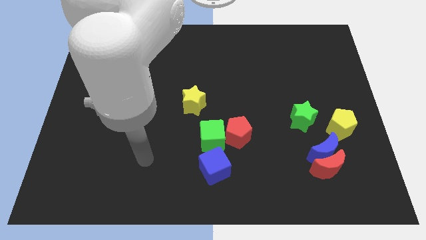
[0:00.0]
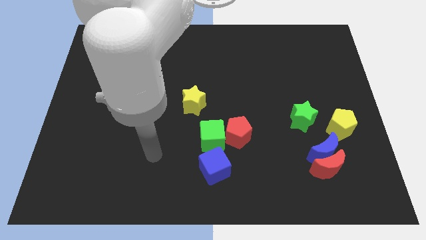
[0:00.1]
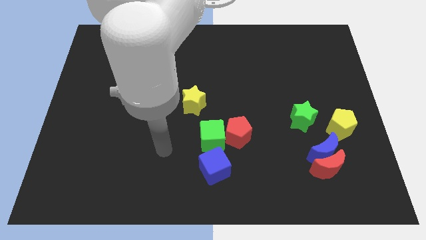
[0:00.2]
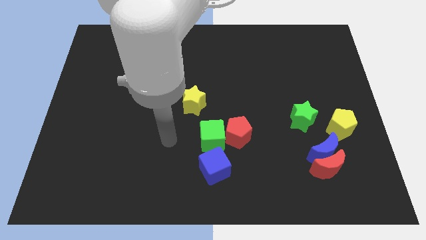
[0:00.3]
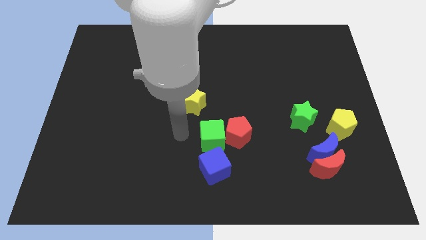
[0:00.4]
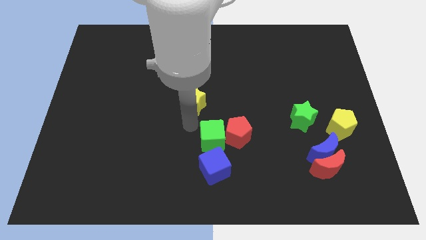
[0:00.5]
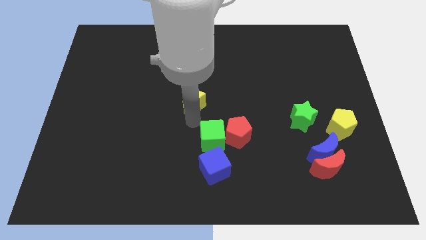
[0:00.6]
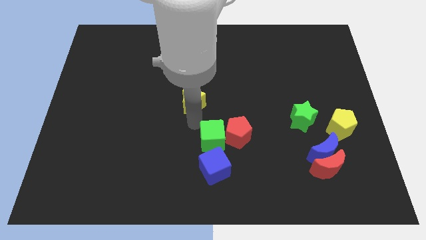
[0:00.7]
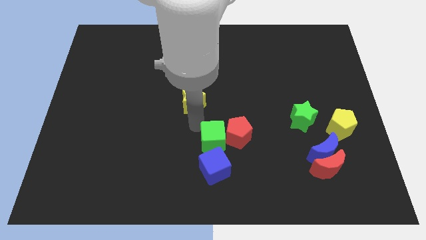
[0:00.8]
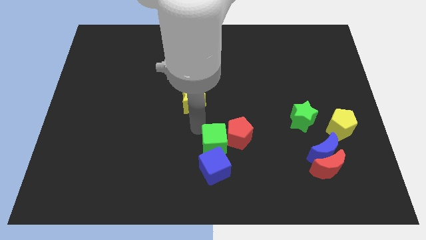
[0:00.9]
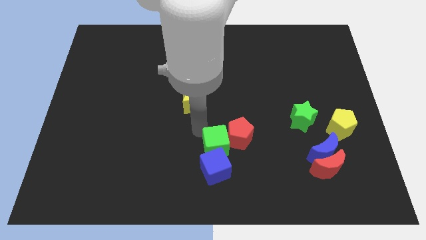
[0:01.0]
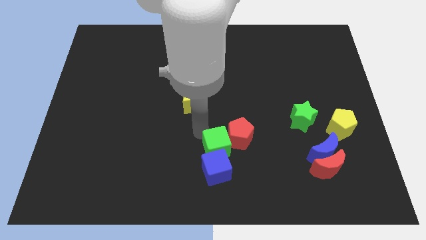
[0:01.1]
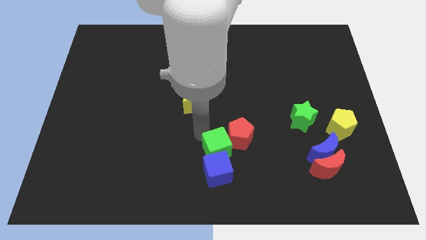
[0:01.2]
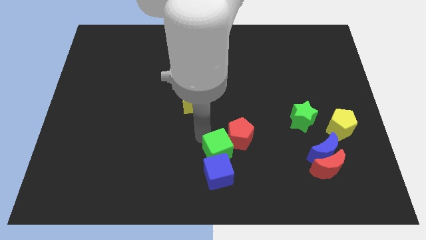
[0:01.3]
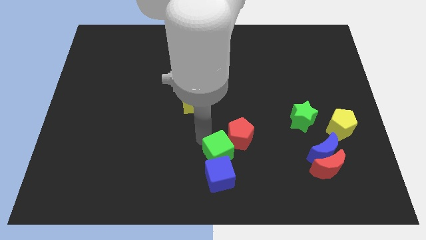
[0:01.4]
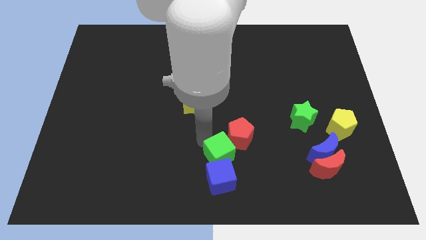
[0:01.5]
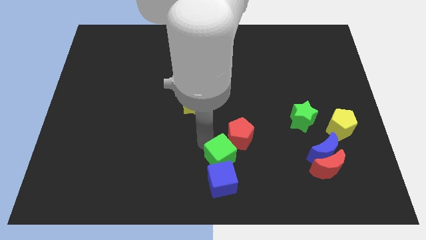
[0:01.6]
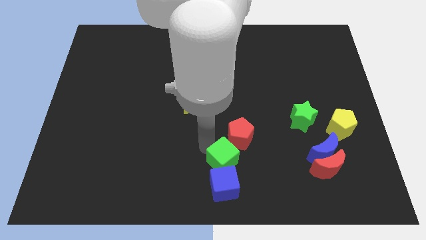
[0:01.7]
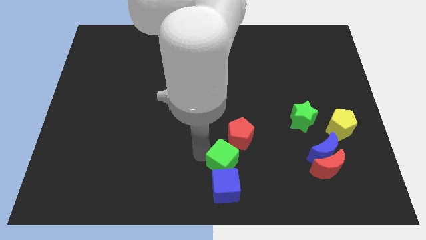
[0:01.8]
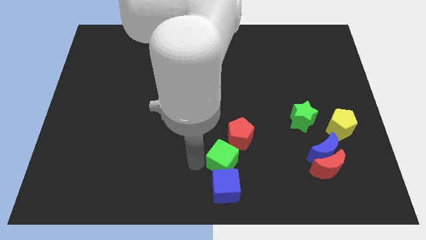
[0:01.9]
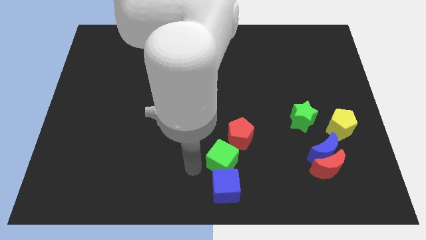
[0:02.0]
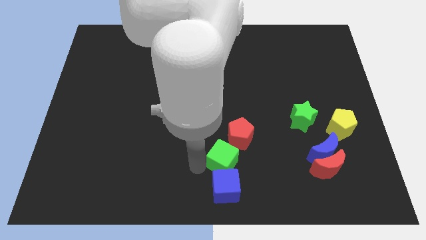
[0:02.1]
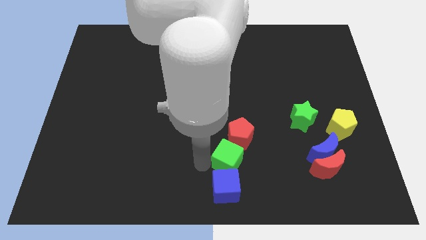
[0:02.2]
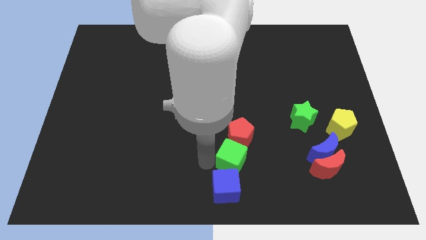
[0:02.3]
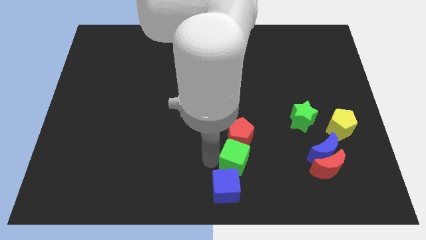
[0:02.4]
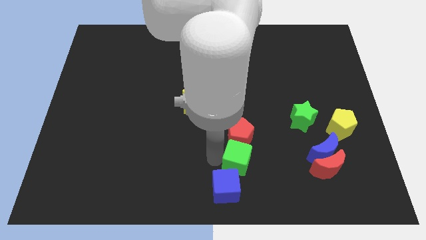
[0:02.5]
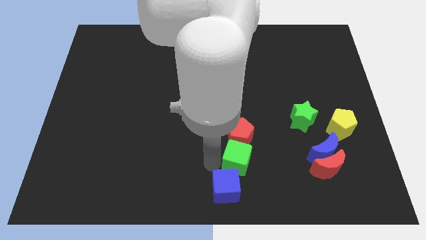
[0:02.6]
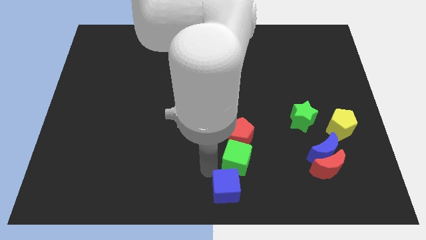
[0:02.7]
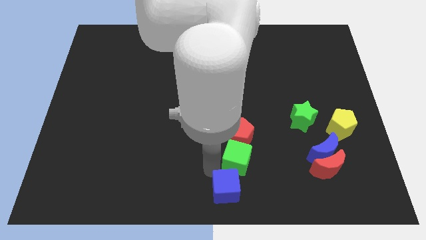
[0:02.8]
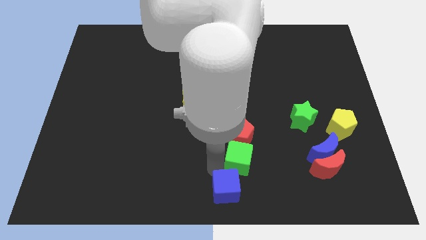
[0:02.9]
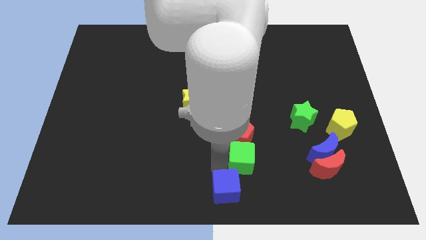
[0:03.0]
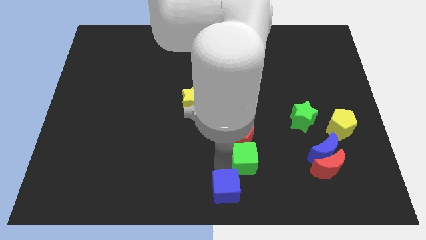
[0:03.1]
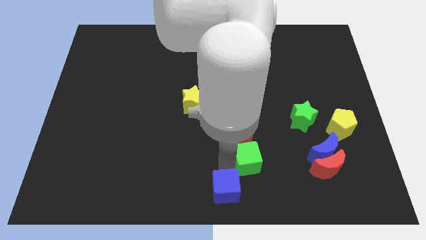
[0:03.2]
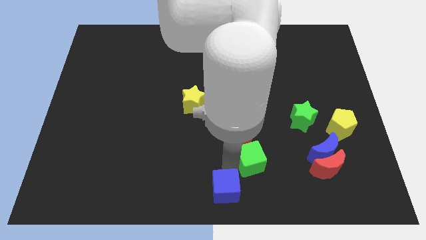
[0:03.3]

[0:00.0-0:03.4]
slightly move the green cube to the right

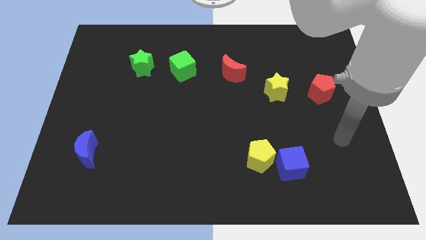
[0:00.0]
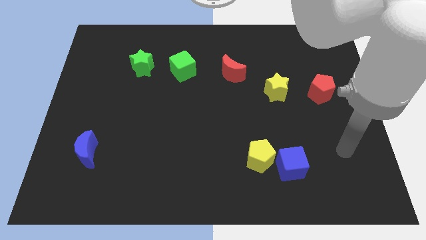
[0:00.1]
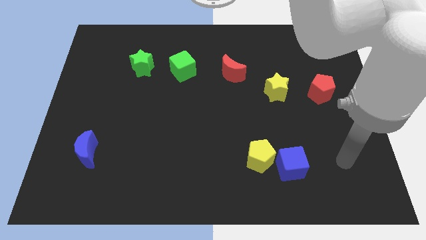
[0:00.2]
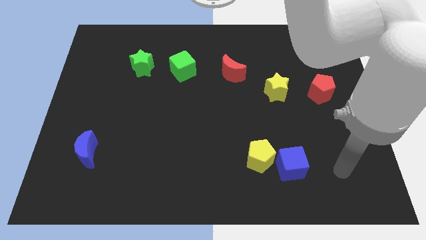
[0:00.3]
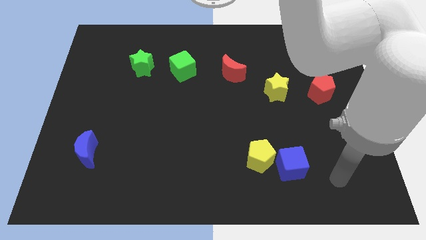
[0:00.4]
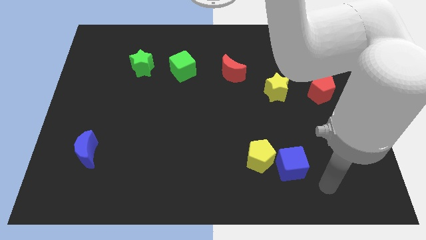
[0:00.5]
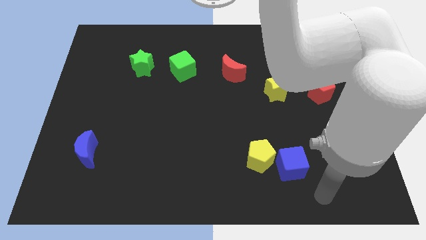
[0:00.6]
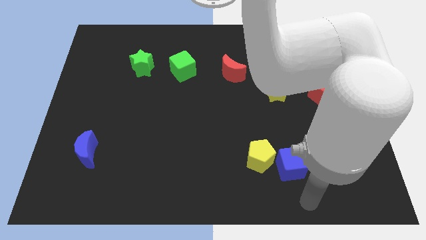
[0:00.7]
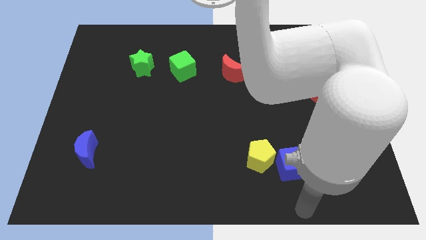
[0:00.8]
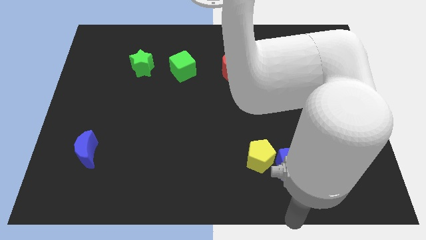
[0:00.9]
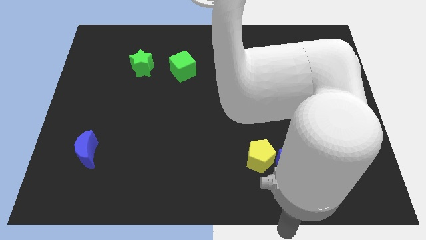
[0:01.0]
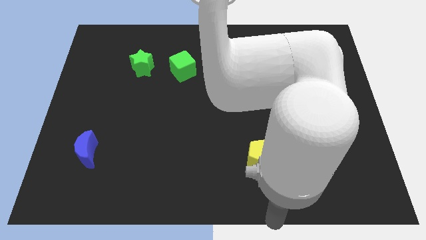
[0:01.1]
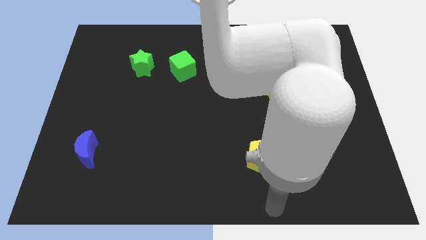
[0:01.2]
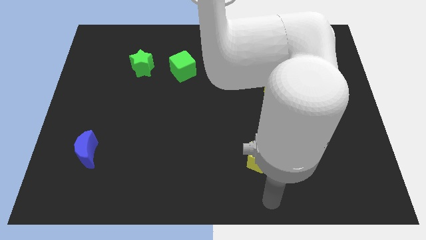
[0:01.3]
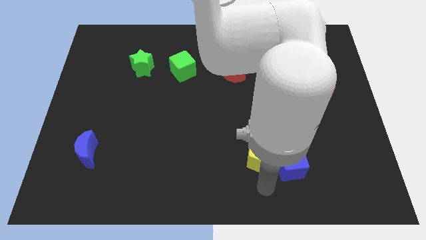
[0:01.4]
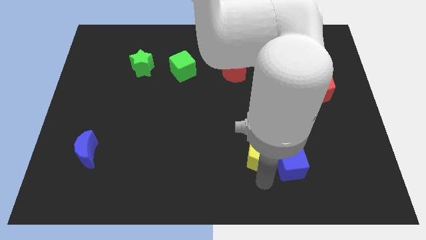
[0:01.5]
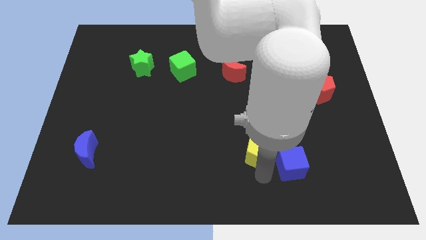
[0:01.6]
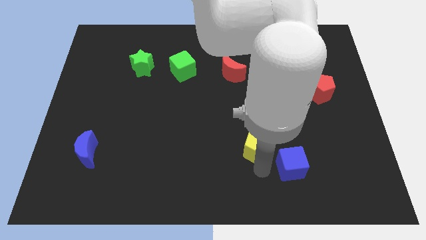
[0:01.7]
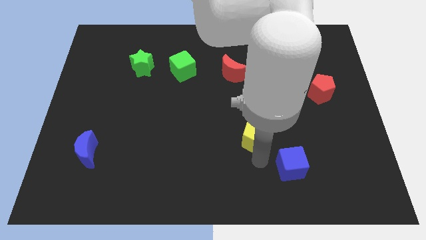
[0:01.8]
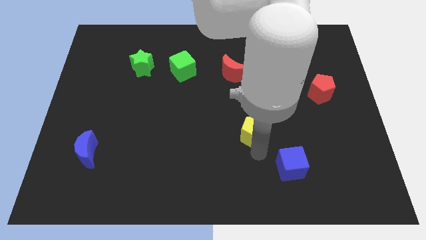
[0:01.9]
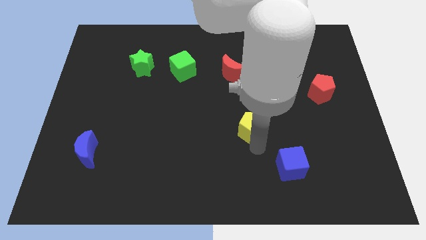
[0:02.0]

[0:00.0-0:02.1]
move the yellow pentagon upwards a bit

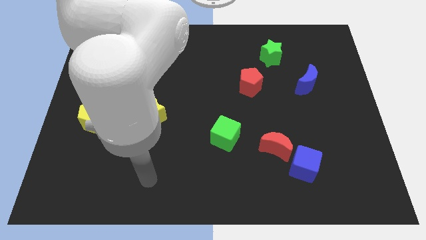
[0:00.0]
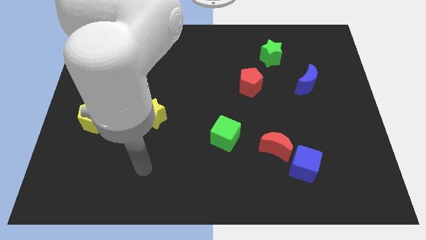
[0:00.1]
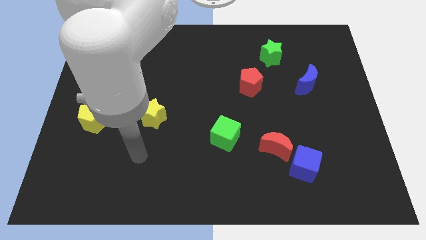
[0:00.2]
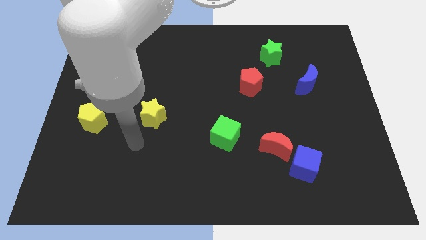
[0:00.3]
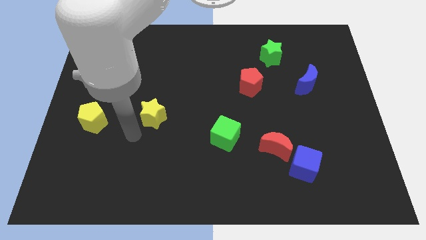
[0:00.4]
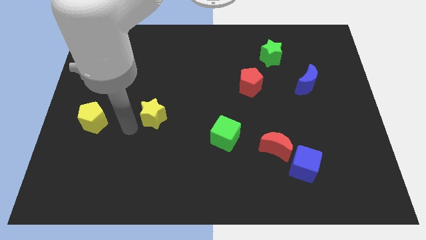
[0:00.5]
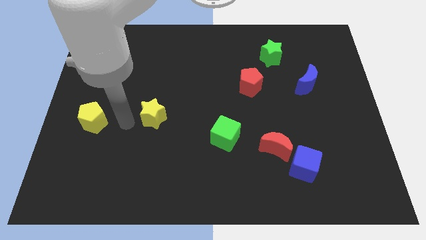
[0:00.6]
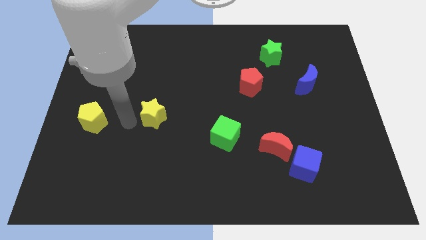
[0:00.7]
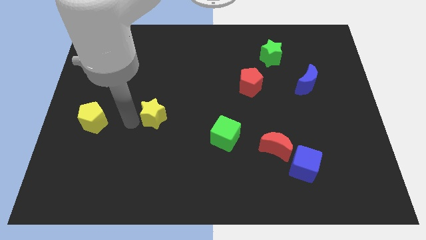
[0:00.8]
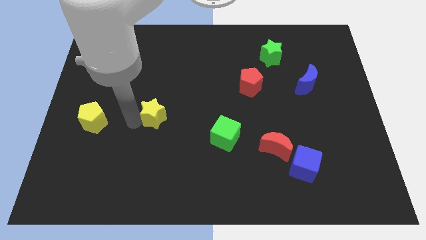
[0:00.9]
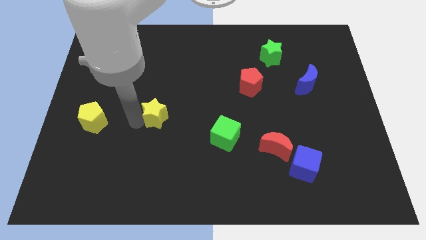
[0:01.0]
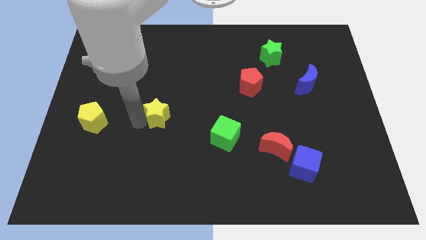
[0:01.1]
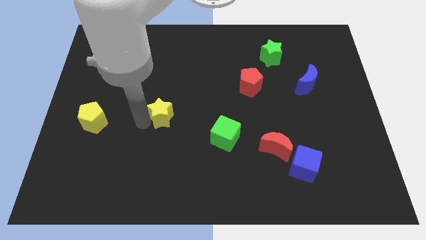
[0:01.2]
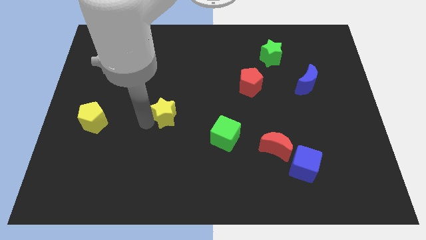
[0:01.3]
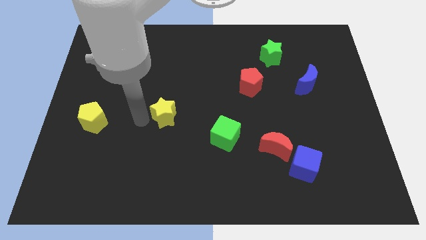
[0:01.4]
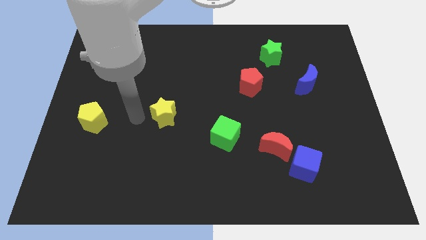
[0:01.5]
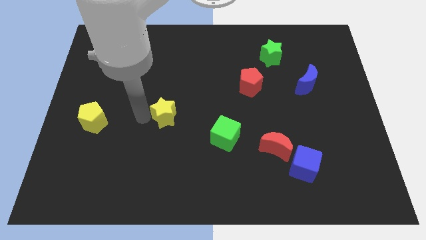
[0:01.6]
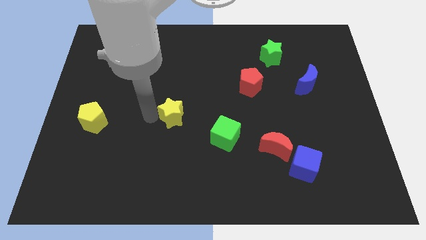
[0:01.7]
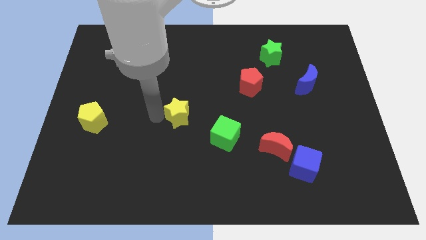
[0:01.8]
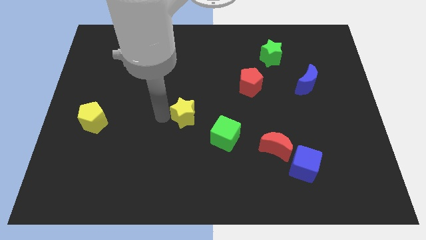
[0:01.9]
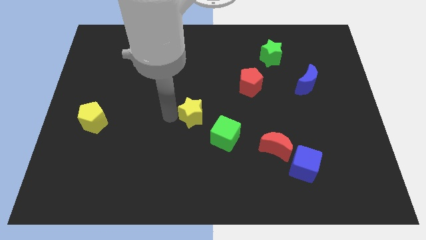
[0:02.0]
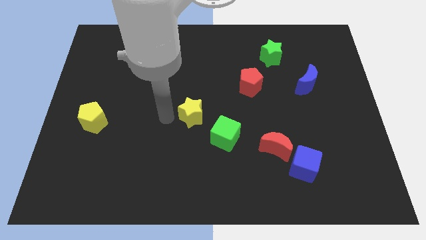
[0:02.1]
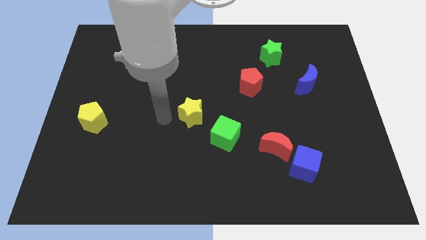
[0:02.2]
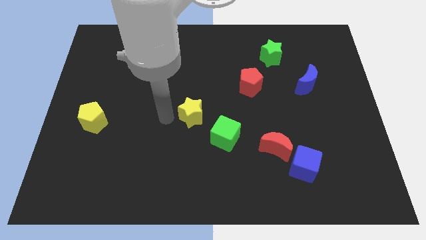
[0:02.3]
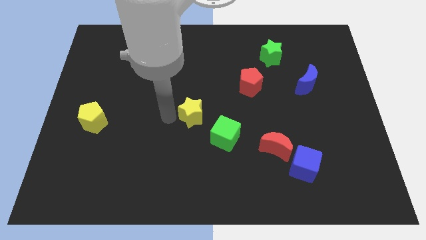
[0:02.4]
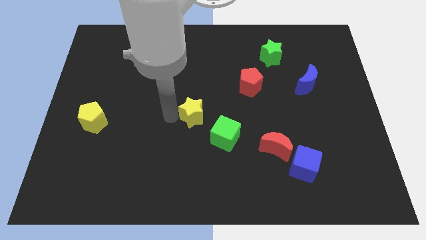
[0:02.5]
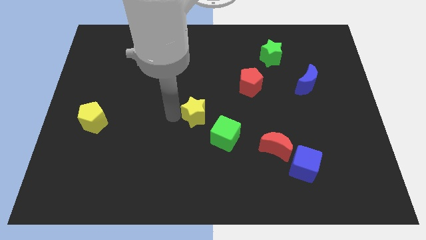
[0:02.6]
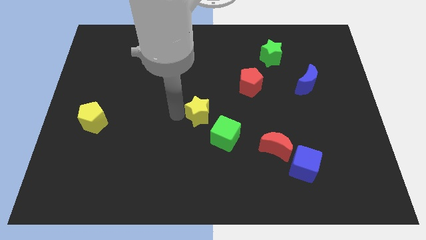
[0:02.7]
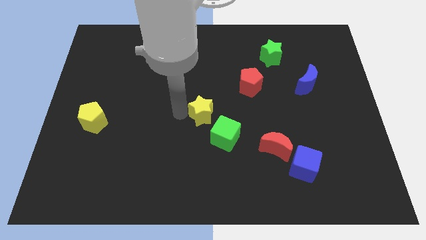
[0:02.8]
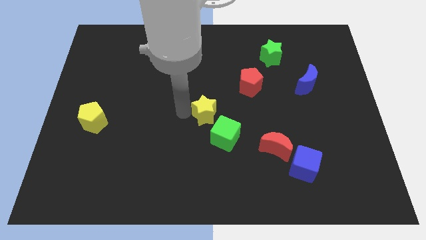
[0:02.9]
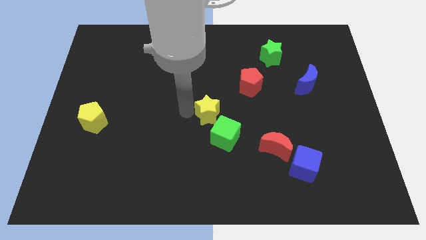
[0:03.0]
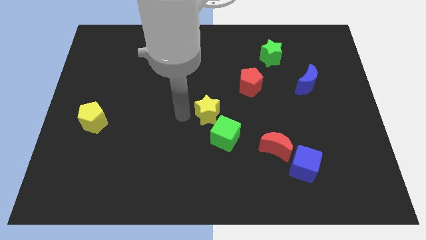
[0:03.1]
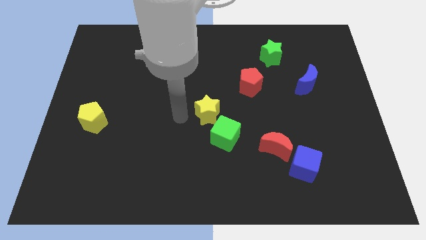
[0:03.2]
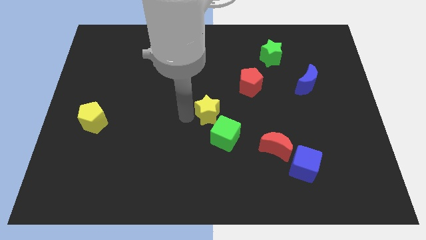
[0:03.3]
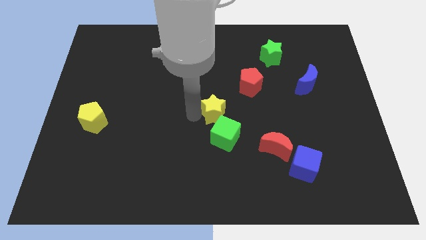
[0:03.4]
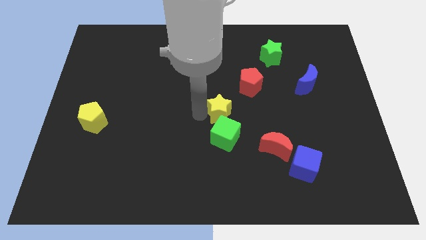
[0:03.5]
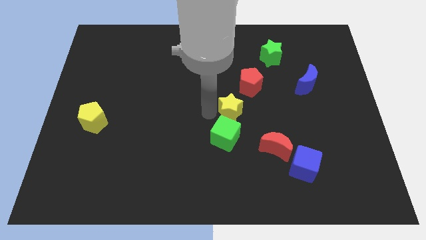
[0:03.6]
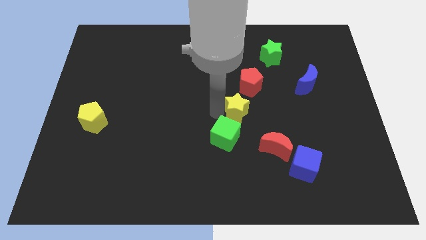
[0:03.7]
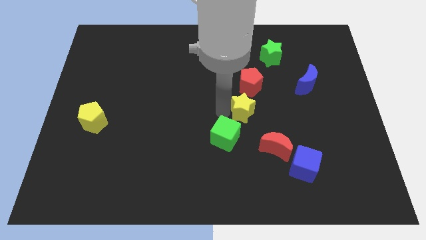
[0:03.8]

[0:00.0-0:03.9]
push the yellow star right
